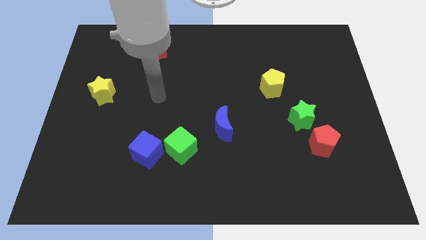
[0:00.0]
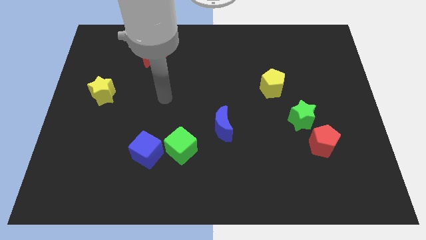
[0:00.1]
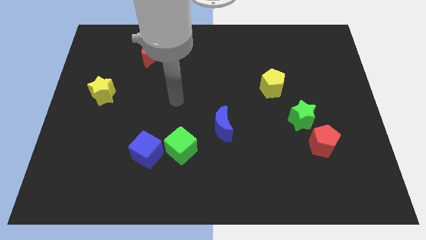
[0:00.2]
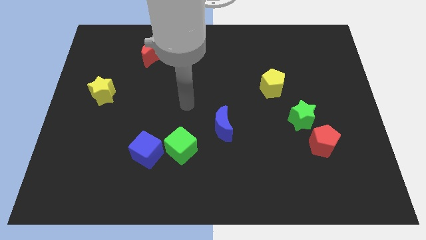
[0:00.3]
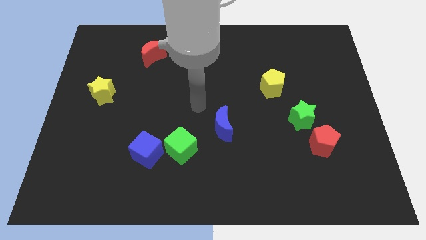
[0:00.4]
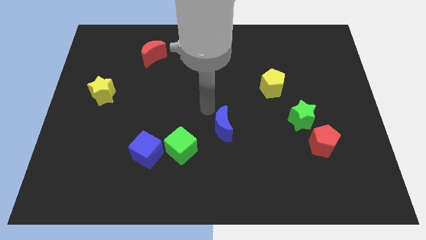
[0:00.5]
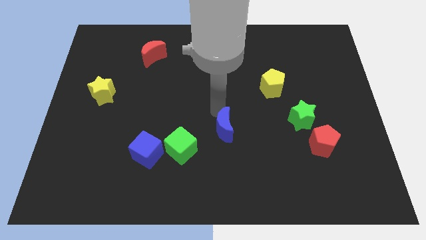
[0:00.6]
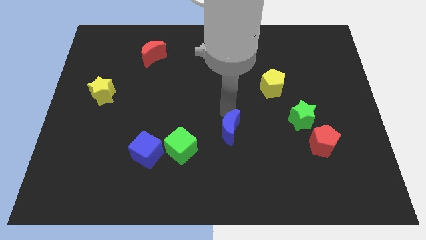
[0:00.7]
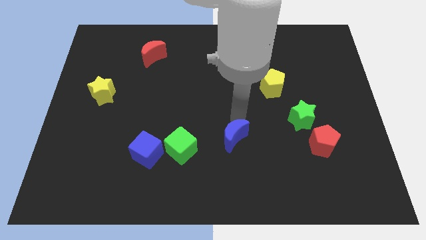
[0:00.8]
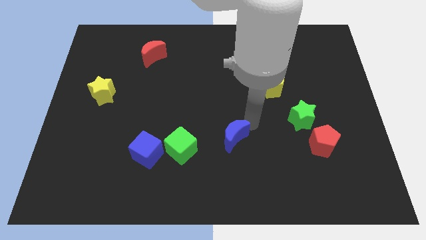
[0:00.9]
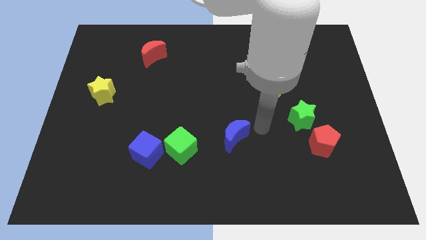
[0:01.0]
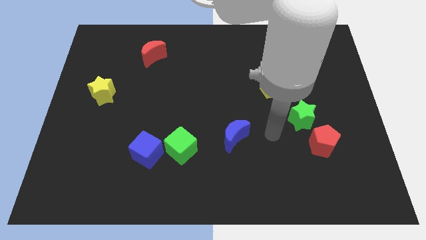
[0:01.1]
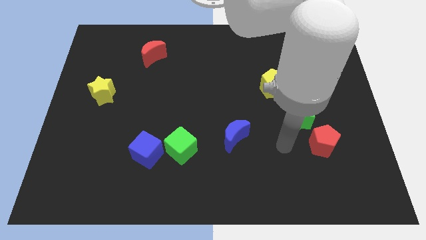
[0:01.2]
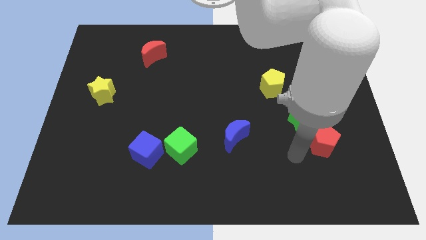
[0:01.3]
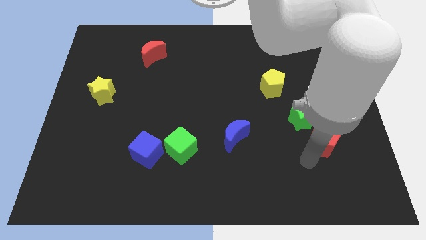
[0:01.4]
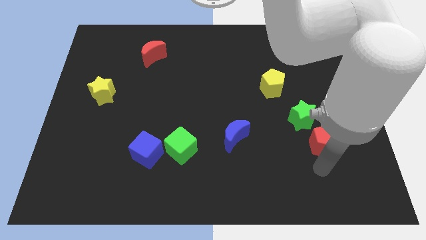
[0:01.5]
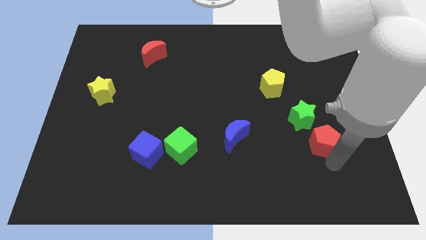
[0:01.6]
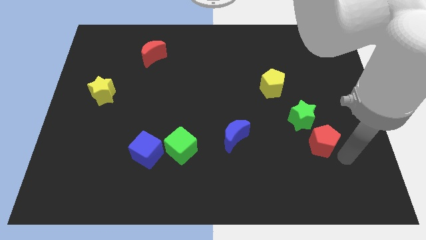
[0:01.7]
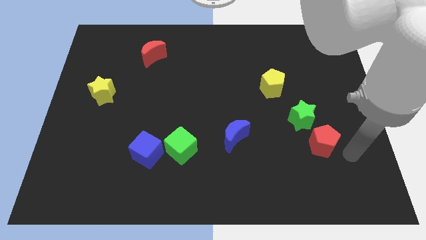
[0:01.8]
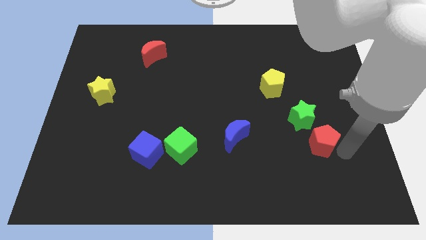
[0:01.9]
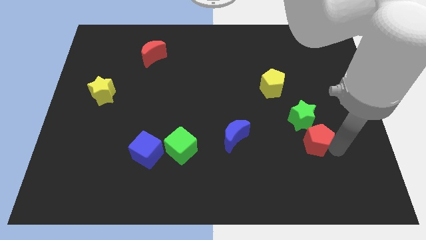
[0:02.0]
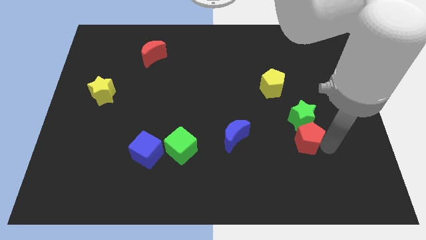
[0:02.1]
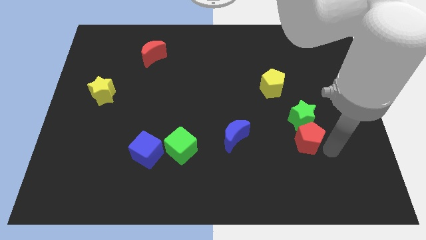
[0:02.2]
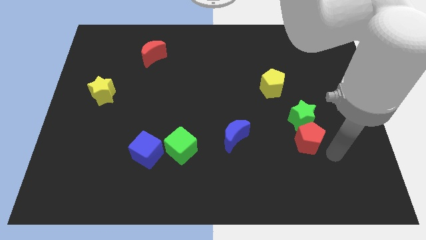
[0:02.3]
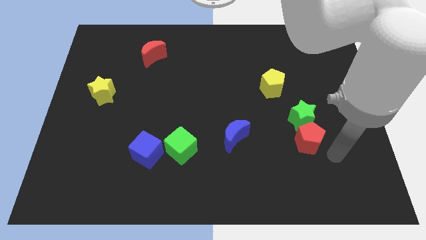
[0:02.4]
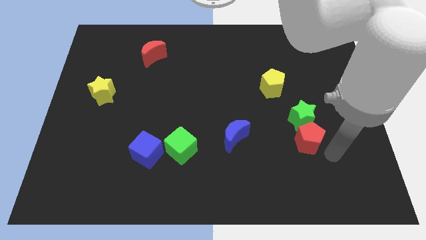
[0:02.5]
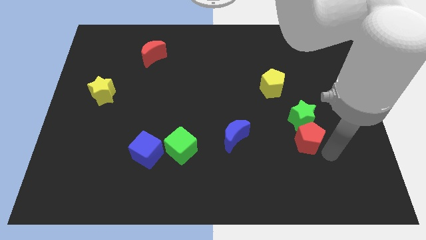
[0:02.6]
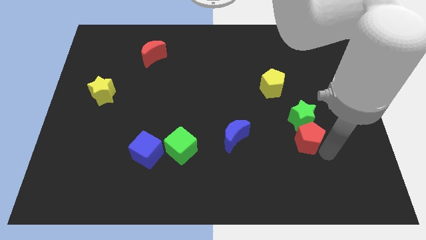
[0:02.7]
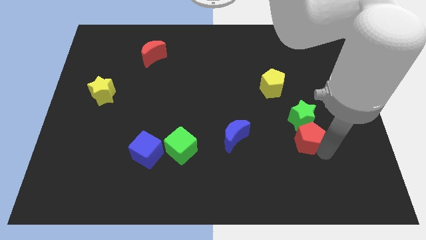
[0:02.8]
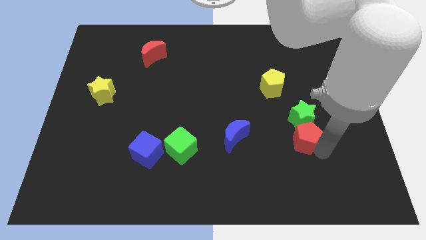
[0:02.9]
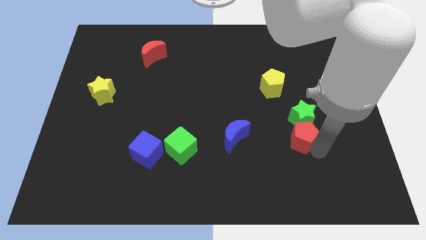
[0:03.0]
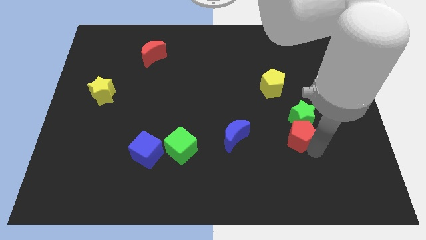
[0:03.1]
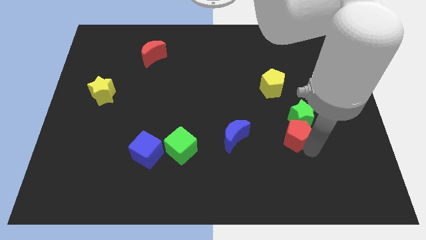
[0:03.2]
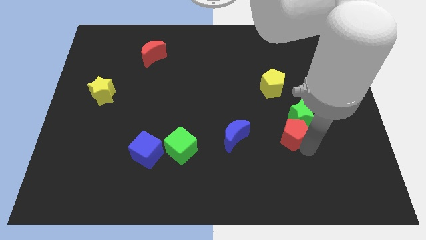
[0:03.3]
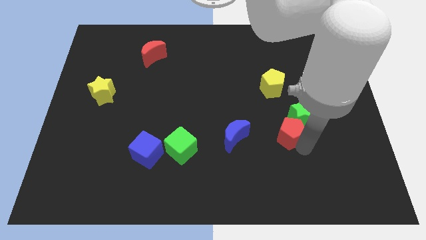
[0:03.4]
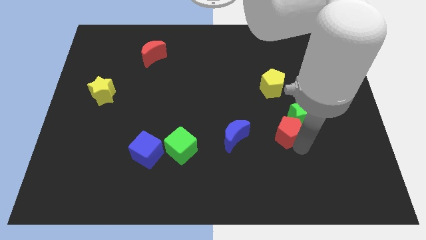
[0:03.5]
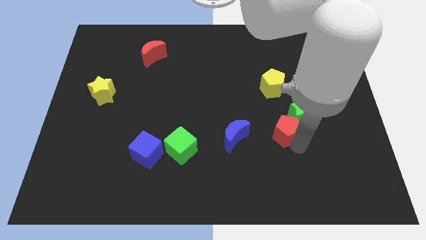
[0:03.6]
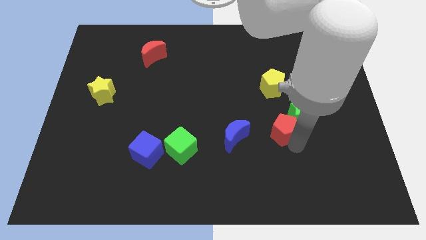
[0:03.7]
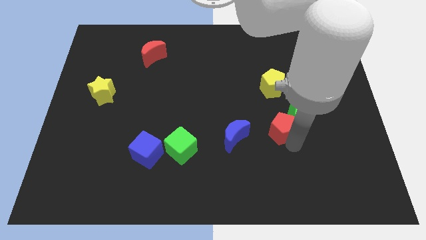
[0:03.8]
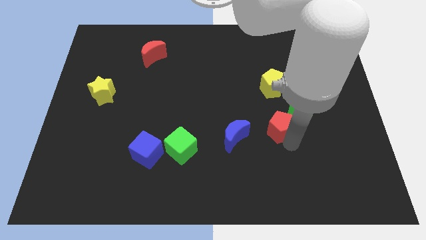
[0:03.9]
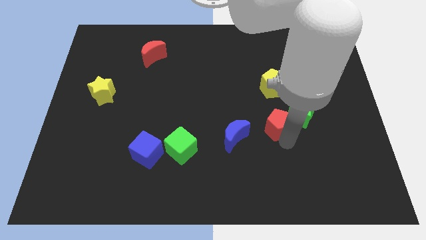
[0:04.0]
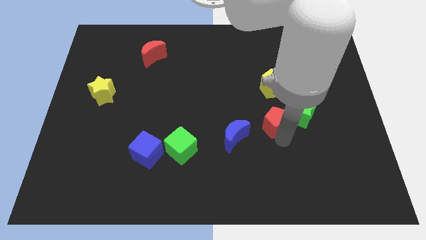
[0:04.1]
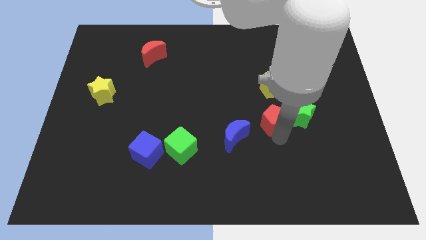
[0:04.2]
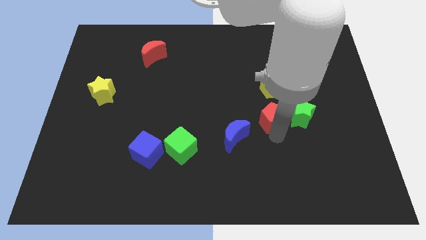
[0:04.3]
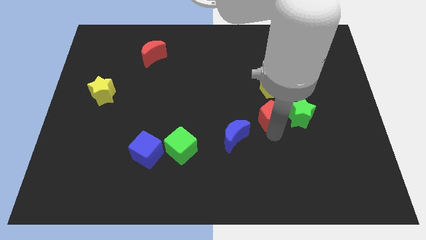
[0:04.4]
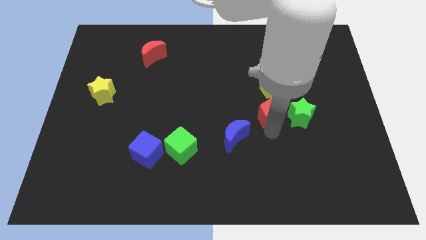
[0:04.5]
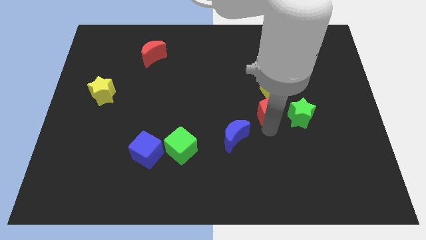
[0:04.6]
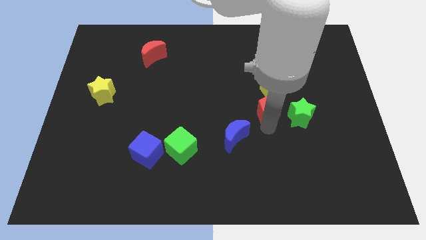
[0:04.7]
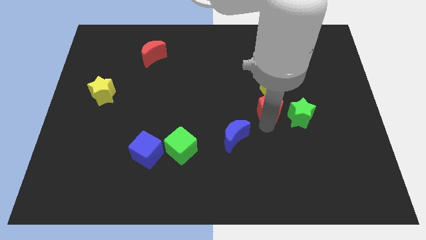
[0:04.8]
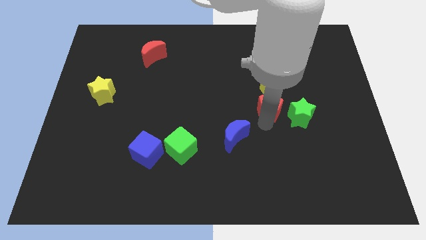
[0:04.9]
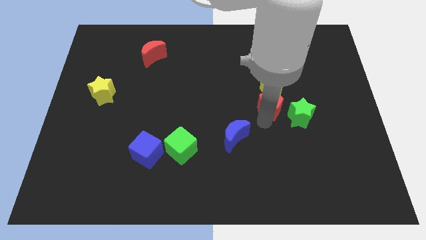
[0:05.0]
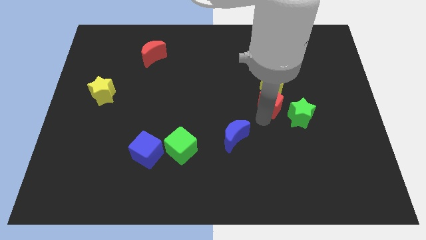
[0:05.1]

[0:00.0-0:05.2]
slide the red pentagon towards the yellow pentagon

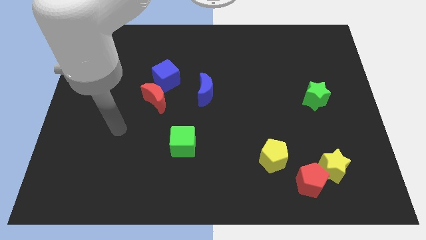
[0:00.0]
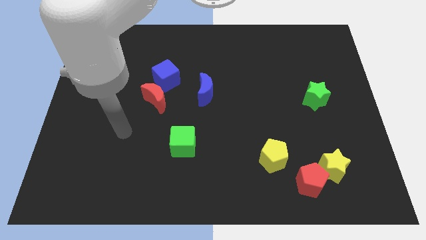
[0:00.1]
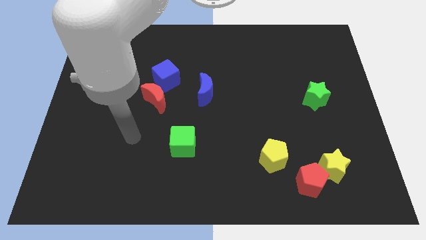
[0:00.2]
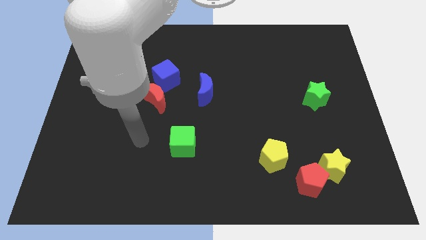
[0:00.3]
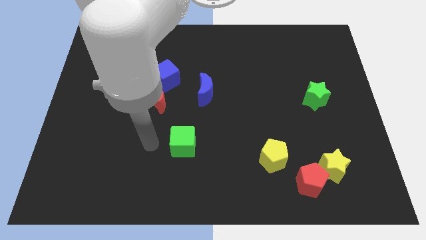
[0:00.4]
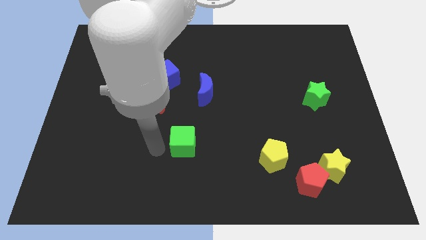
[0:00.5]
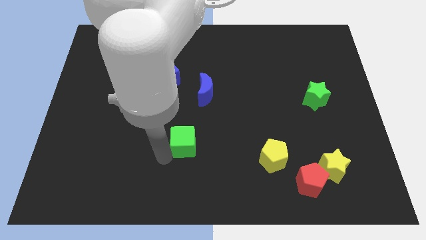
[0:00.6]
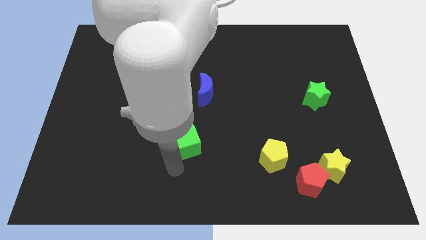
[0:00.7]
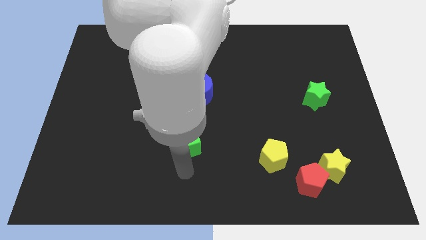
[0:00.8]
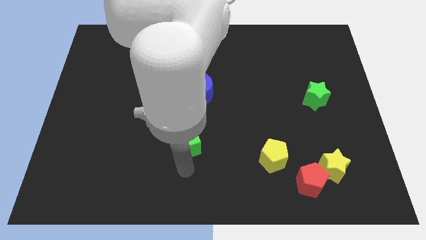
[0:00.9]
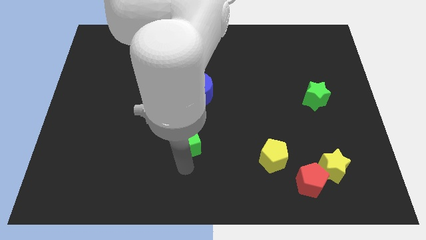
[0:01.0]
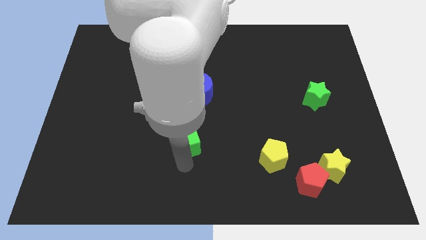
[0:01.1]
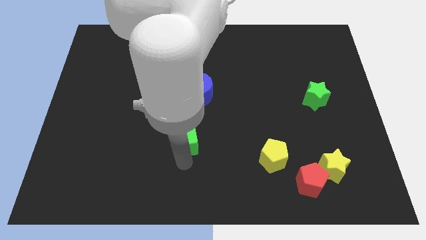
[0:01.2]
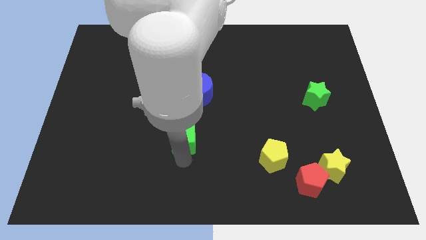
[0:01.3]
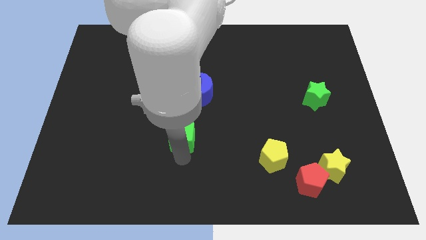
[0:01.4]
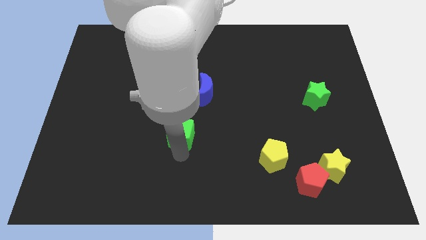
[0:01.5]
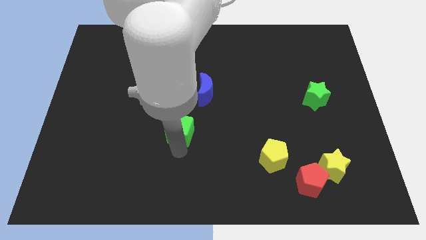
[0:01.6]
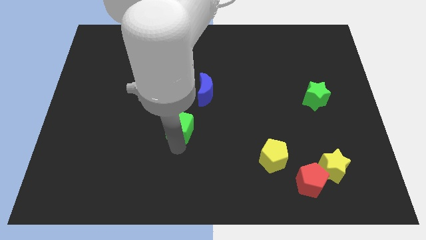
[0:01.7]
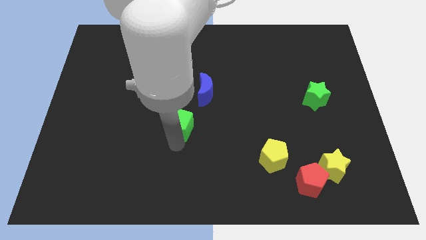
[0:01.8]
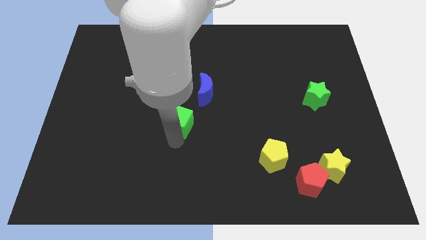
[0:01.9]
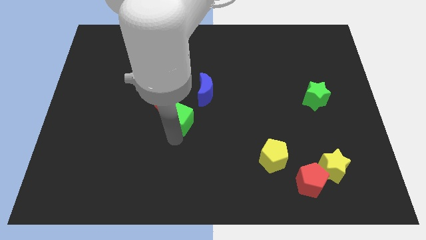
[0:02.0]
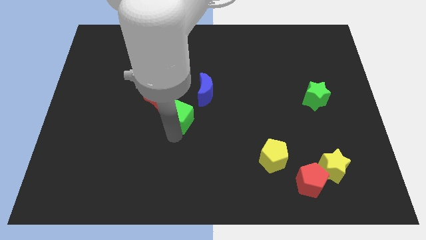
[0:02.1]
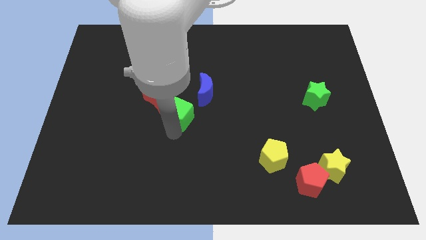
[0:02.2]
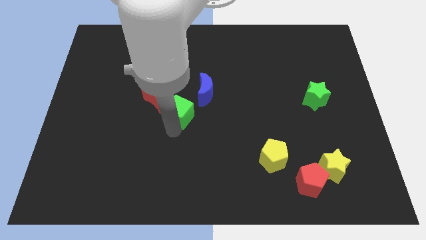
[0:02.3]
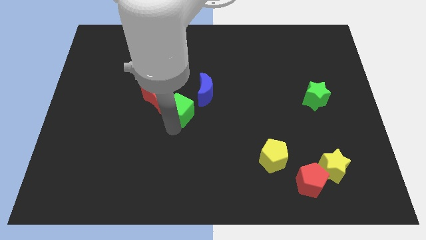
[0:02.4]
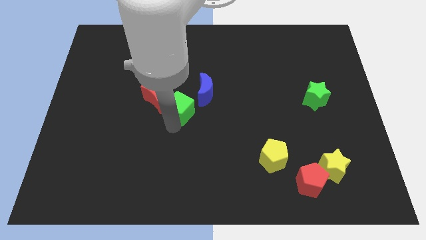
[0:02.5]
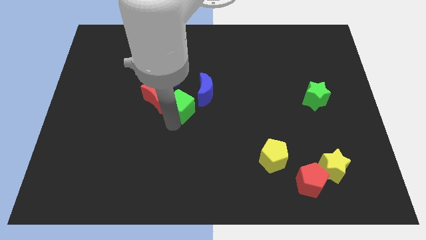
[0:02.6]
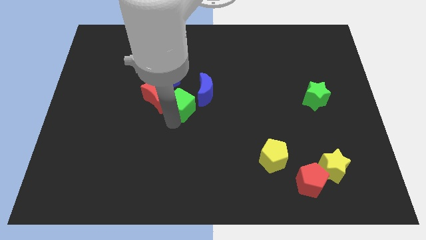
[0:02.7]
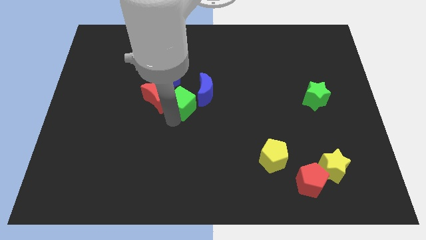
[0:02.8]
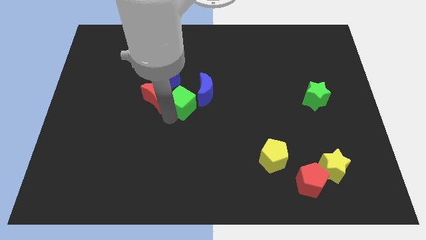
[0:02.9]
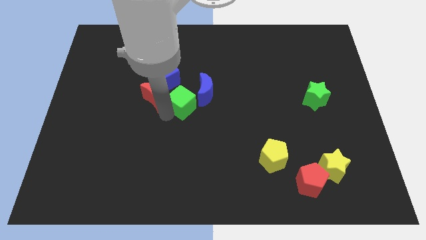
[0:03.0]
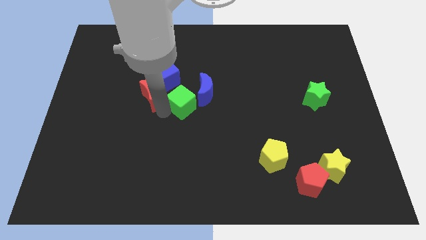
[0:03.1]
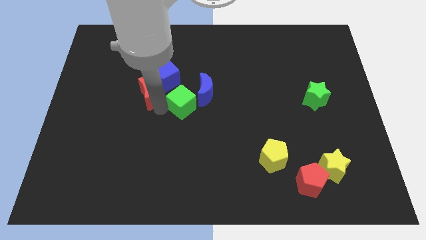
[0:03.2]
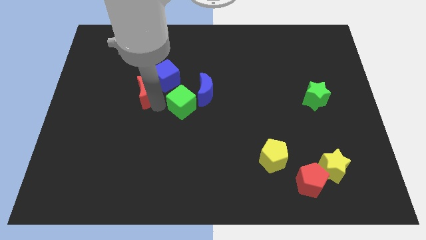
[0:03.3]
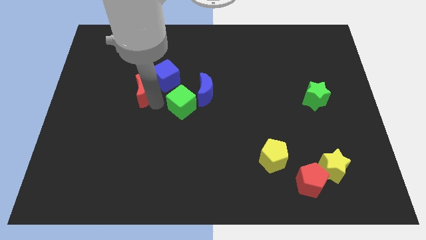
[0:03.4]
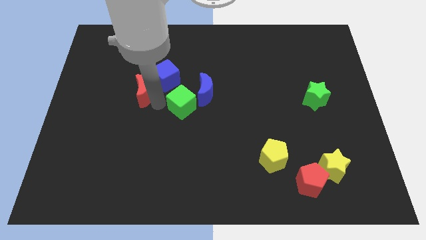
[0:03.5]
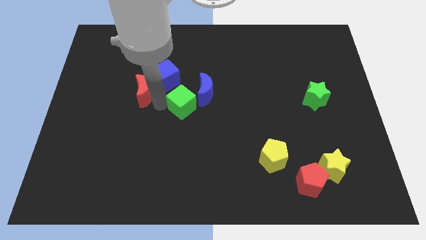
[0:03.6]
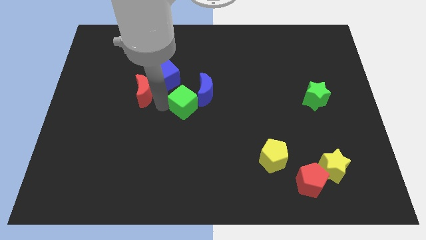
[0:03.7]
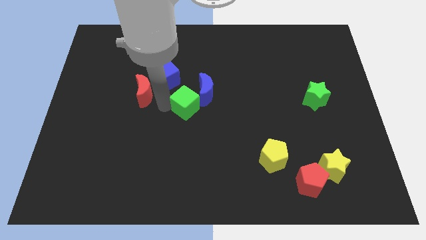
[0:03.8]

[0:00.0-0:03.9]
push the green cube close to the blue moon
